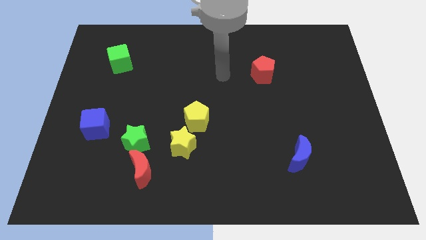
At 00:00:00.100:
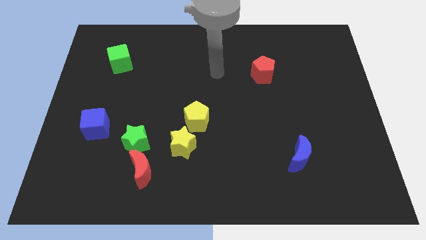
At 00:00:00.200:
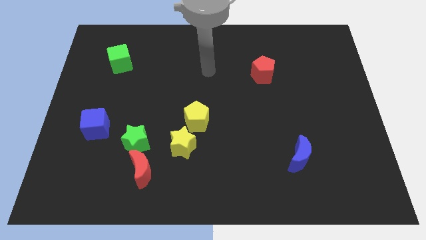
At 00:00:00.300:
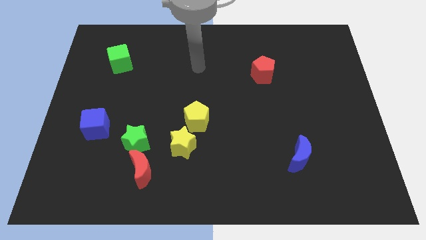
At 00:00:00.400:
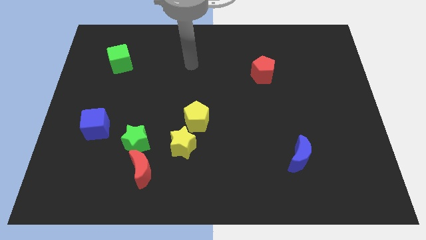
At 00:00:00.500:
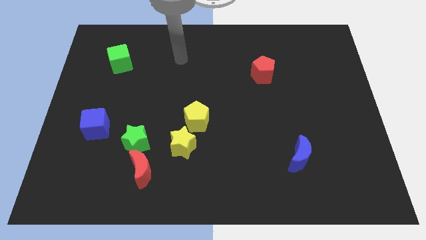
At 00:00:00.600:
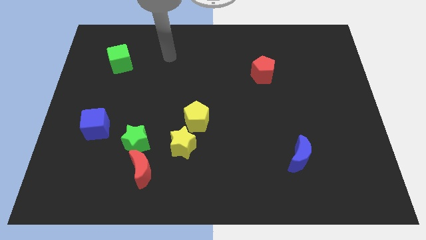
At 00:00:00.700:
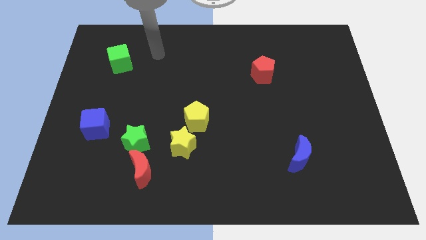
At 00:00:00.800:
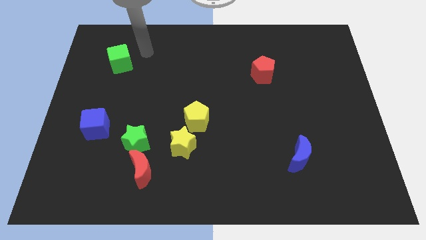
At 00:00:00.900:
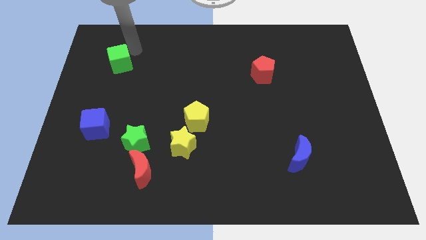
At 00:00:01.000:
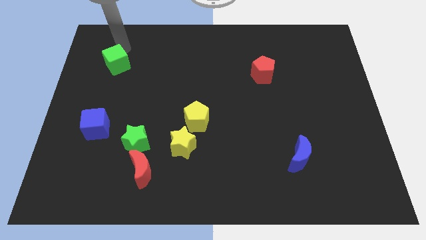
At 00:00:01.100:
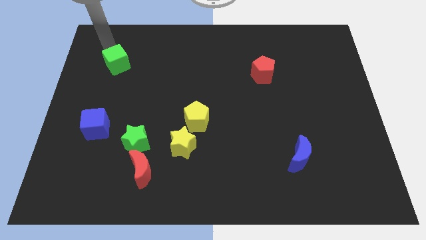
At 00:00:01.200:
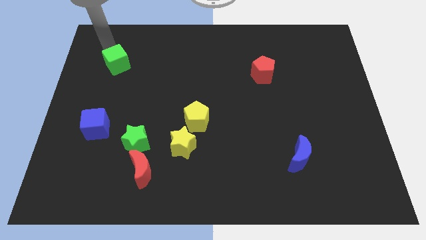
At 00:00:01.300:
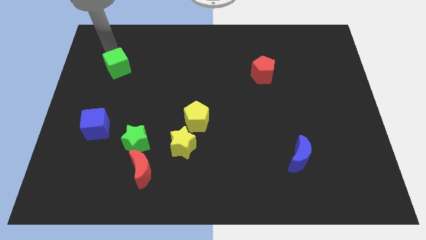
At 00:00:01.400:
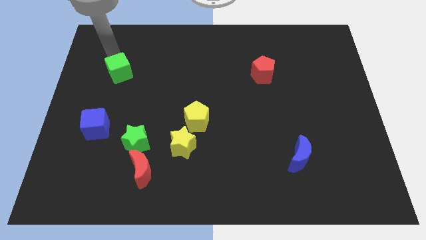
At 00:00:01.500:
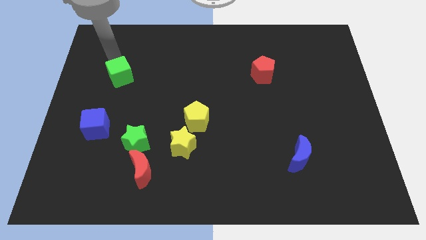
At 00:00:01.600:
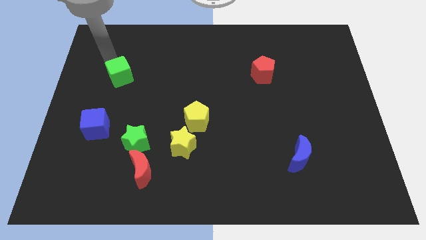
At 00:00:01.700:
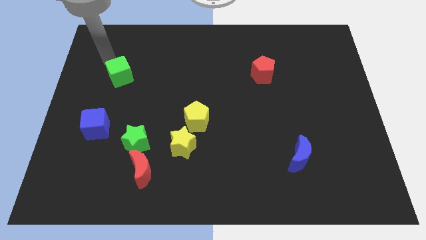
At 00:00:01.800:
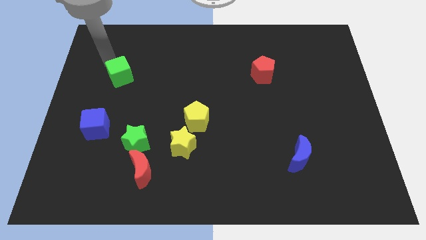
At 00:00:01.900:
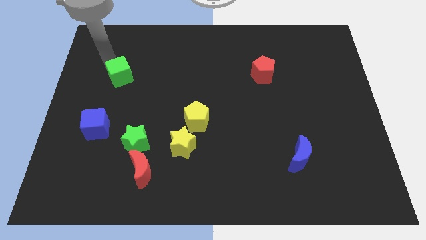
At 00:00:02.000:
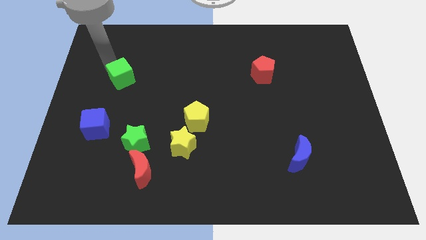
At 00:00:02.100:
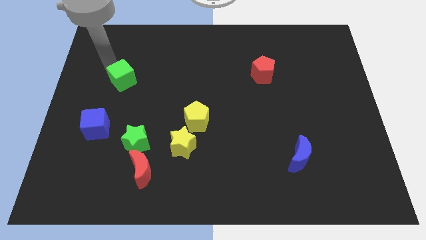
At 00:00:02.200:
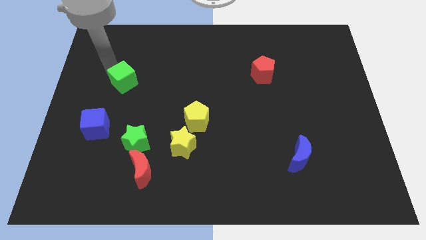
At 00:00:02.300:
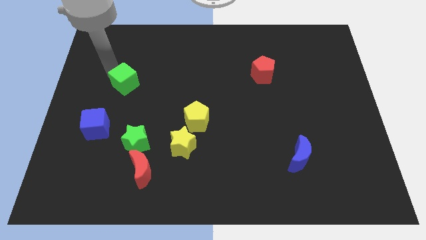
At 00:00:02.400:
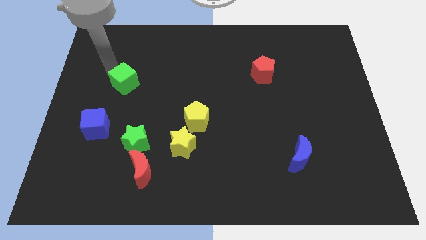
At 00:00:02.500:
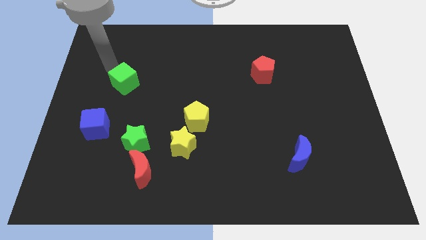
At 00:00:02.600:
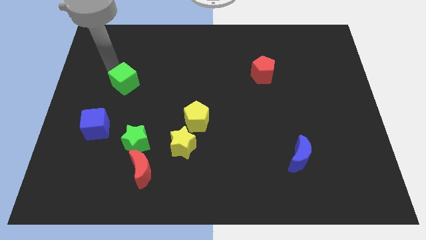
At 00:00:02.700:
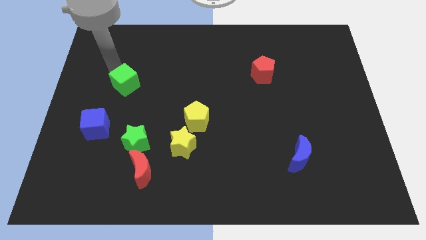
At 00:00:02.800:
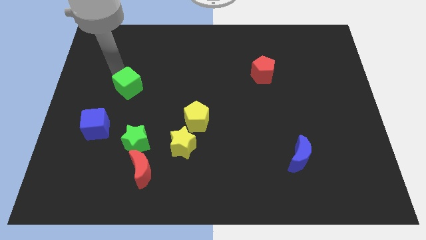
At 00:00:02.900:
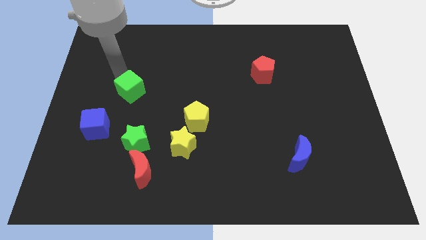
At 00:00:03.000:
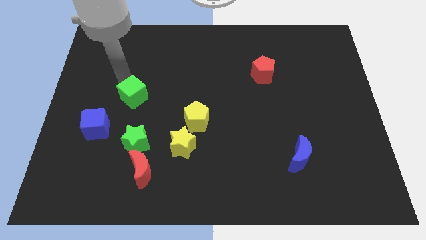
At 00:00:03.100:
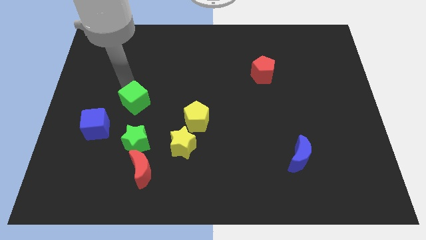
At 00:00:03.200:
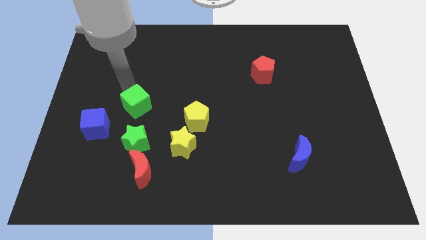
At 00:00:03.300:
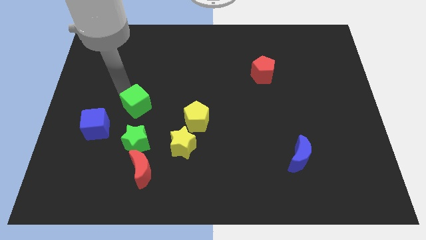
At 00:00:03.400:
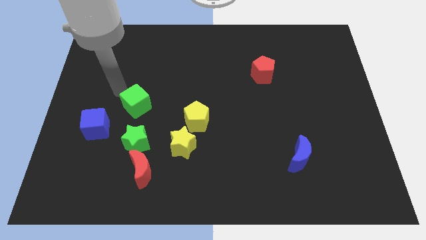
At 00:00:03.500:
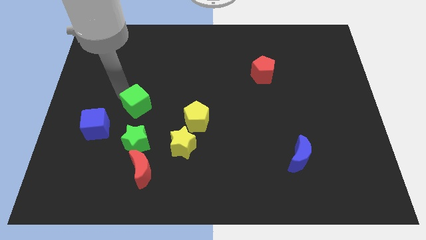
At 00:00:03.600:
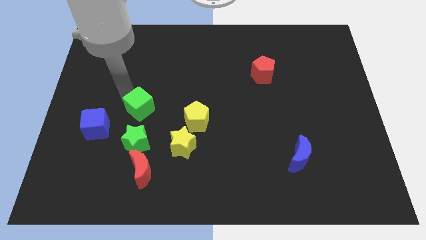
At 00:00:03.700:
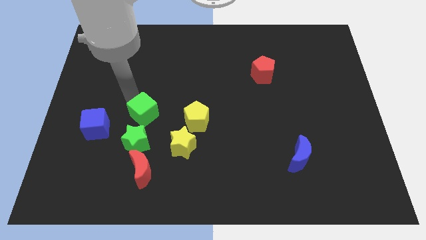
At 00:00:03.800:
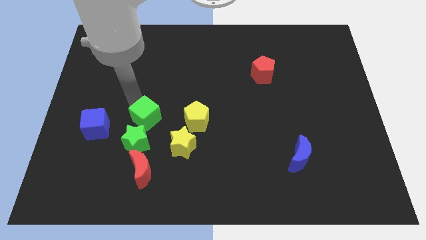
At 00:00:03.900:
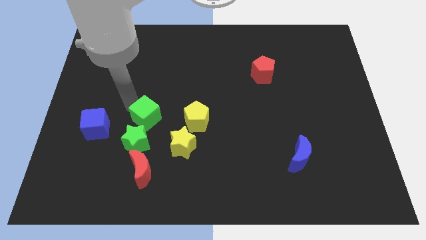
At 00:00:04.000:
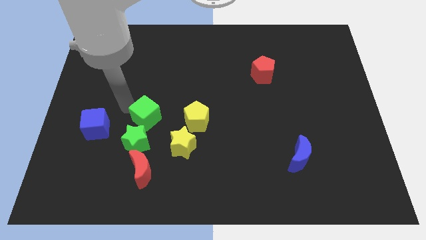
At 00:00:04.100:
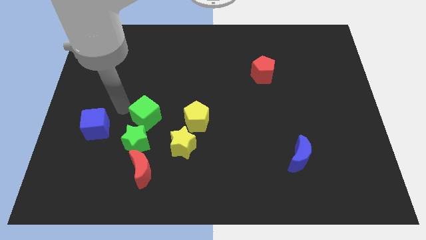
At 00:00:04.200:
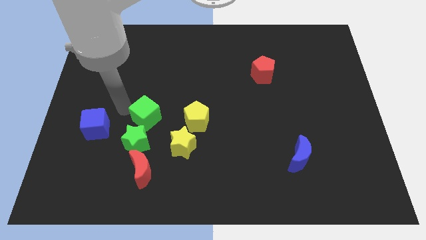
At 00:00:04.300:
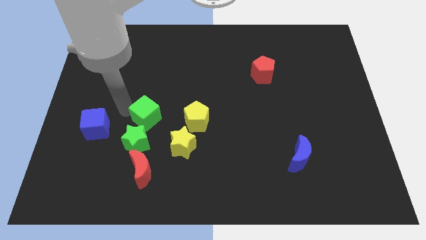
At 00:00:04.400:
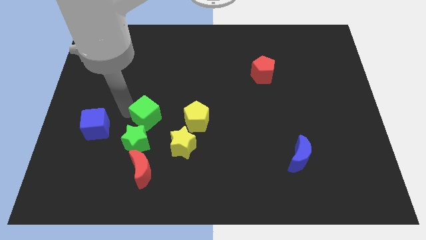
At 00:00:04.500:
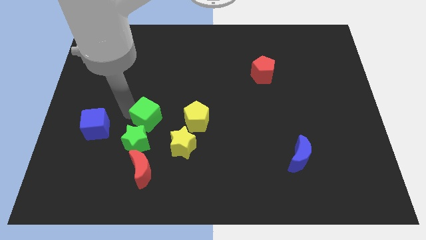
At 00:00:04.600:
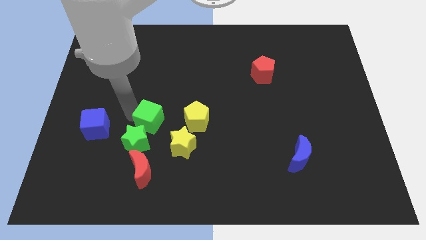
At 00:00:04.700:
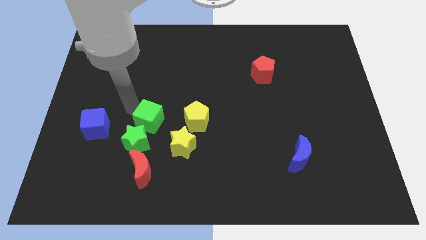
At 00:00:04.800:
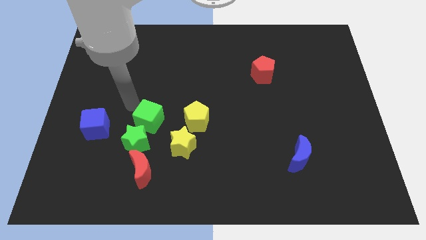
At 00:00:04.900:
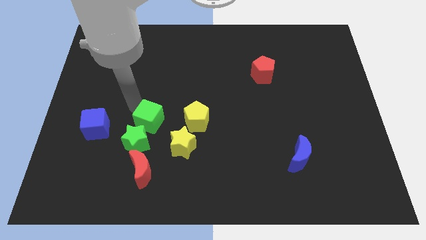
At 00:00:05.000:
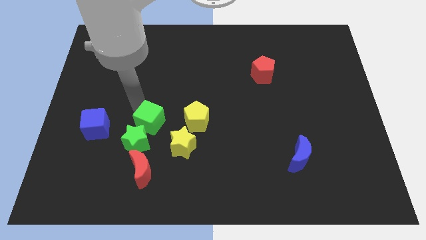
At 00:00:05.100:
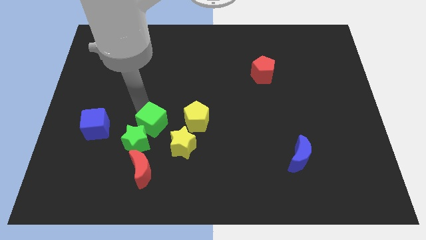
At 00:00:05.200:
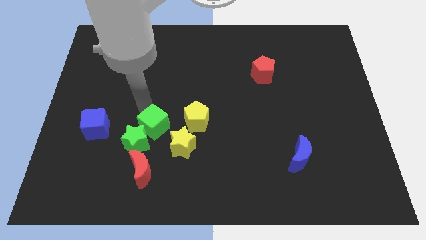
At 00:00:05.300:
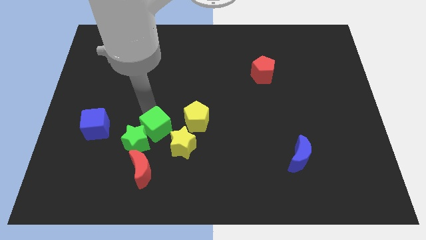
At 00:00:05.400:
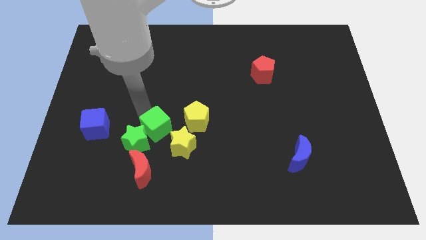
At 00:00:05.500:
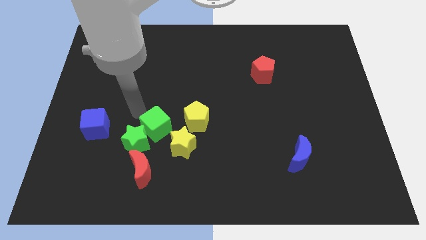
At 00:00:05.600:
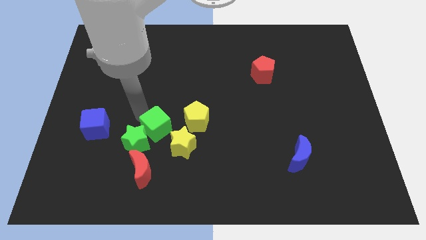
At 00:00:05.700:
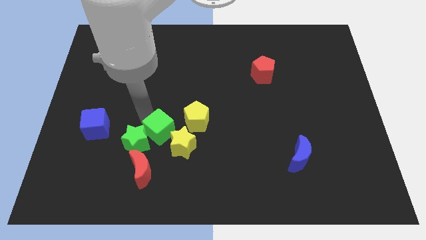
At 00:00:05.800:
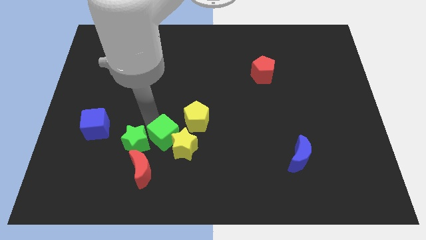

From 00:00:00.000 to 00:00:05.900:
put the green cube towards the yellow star
